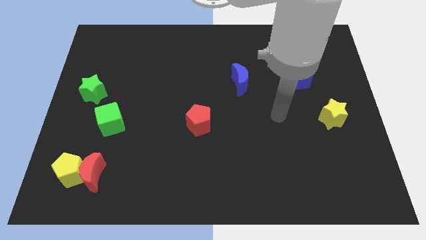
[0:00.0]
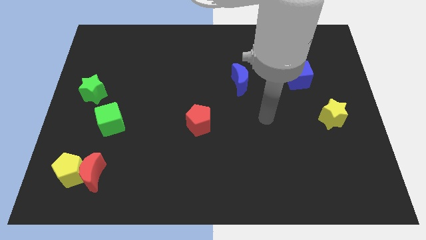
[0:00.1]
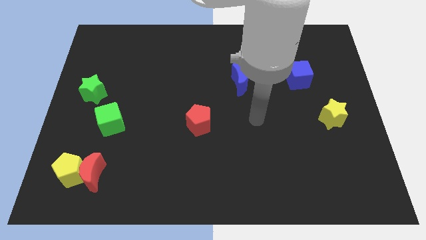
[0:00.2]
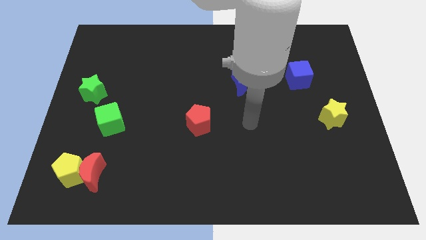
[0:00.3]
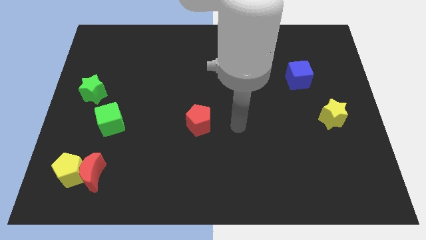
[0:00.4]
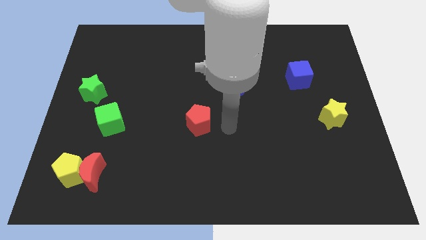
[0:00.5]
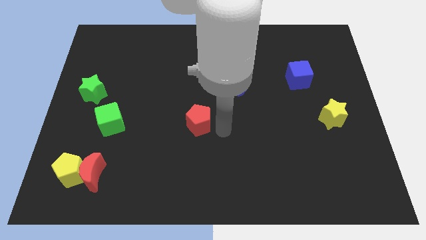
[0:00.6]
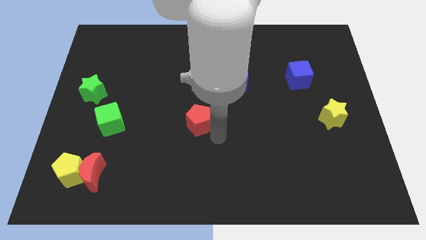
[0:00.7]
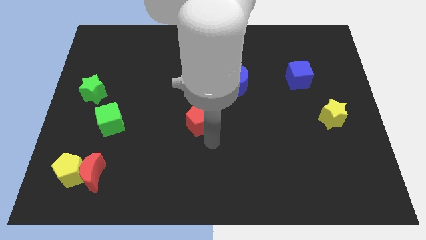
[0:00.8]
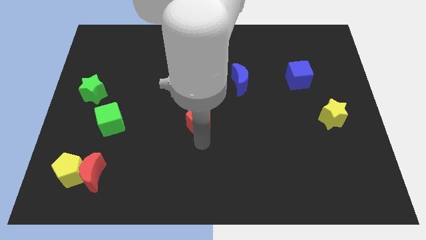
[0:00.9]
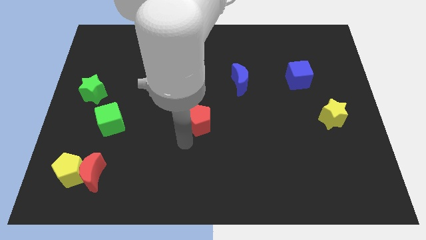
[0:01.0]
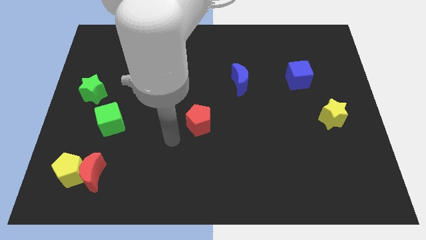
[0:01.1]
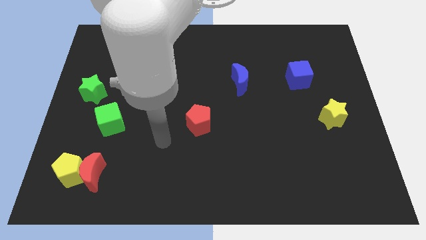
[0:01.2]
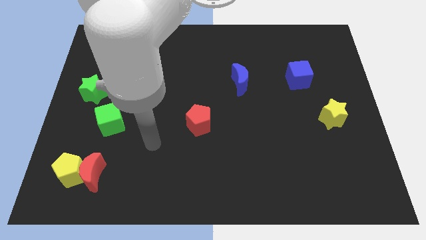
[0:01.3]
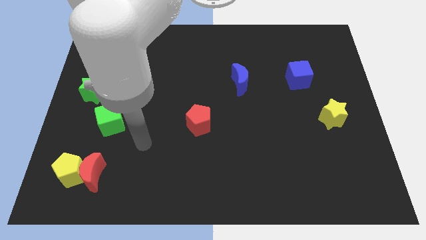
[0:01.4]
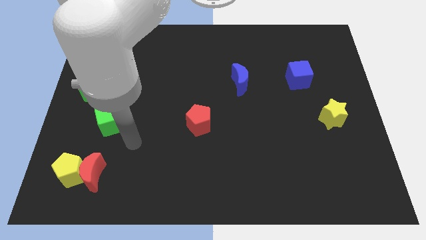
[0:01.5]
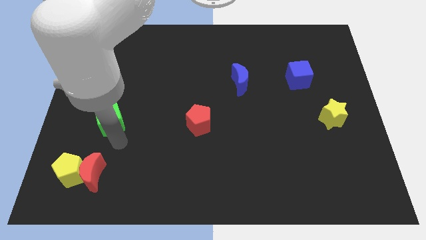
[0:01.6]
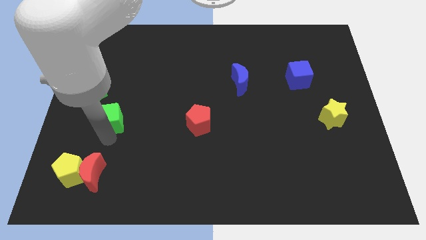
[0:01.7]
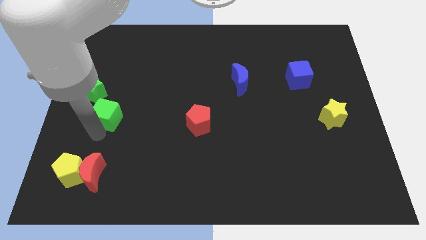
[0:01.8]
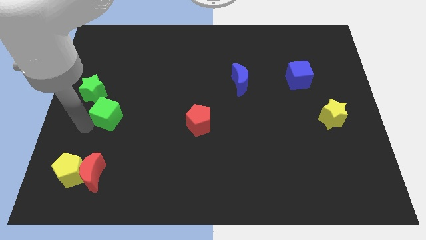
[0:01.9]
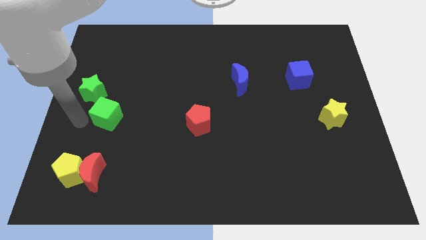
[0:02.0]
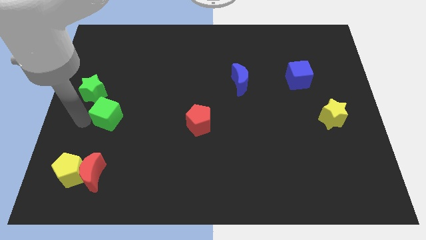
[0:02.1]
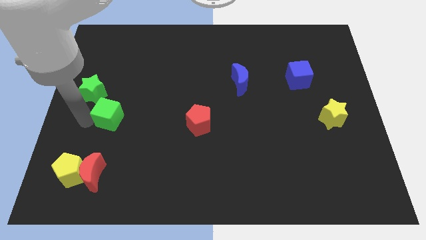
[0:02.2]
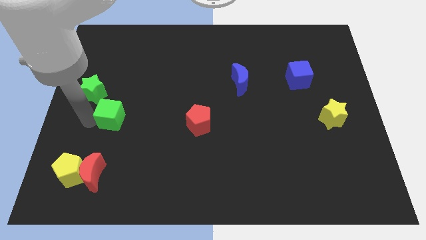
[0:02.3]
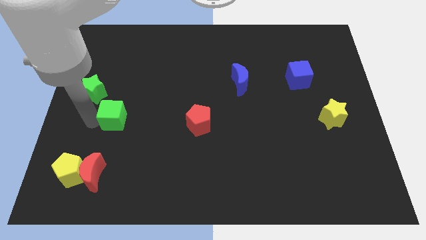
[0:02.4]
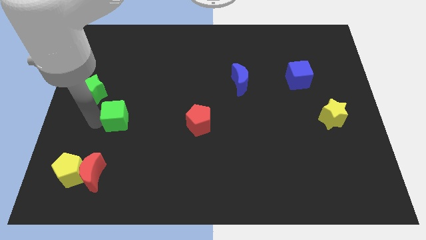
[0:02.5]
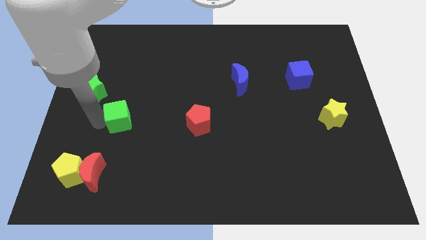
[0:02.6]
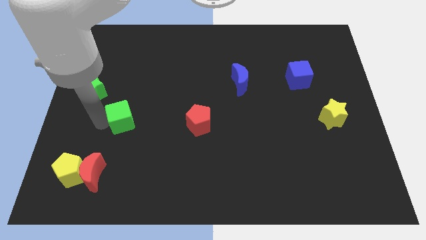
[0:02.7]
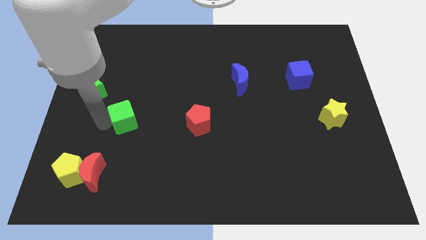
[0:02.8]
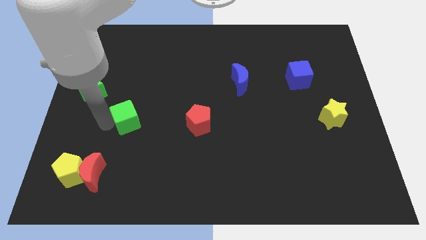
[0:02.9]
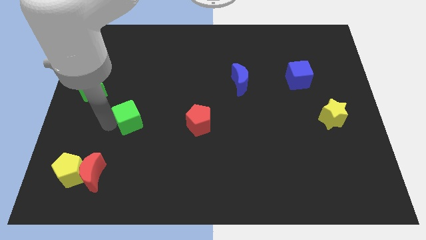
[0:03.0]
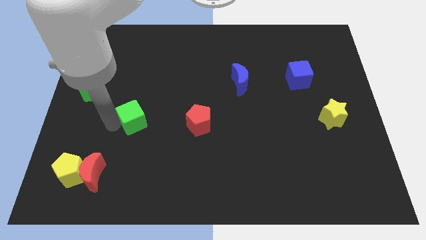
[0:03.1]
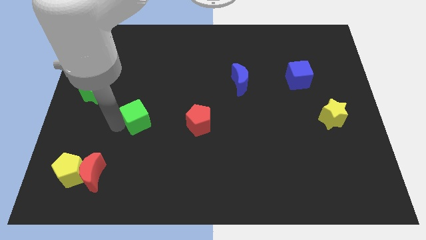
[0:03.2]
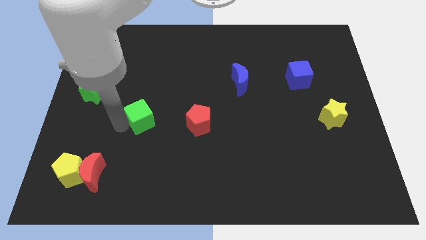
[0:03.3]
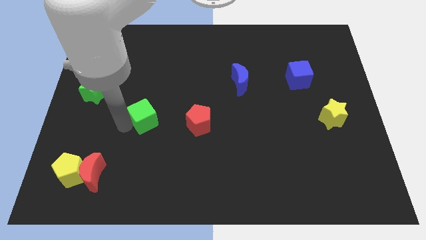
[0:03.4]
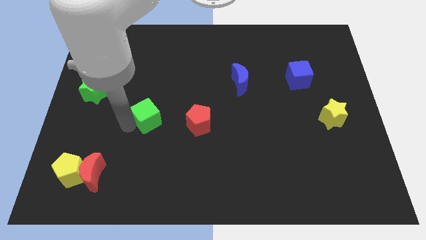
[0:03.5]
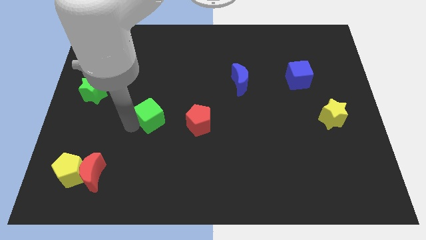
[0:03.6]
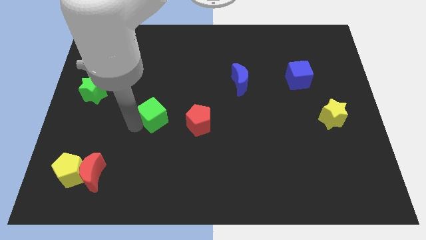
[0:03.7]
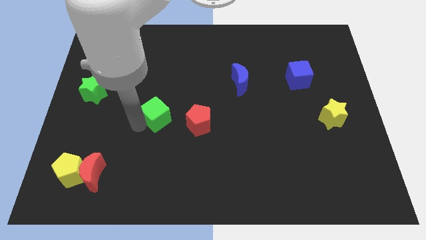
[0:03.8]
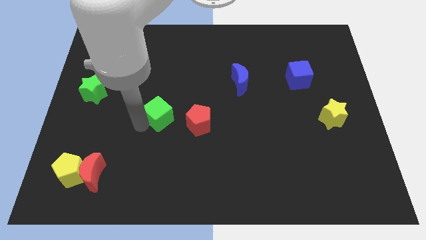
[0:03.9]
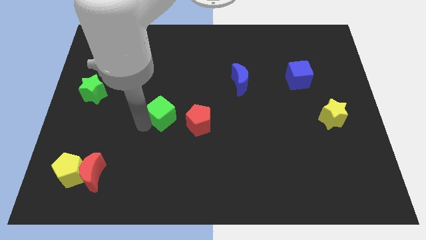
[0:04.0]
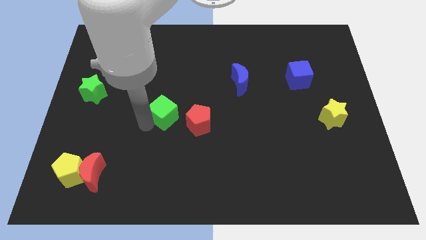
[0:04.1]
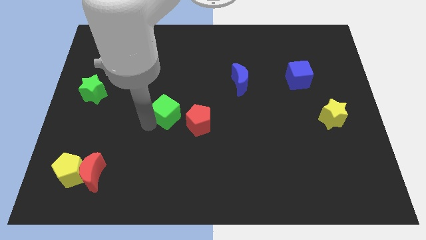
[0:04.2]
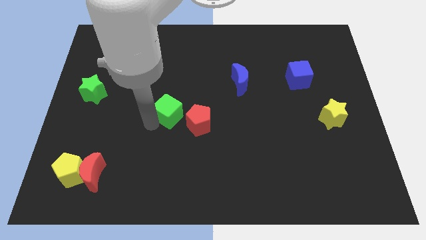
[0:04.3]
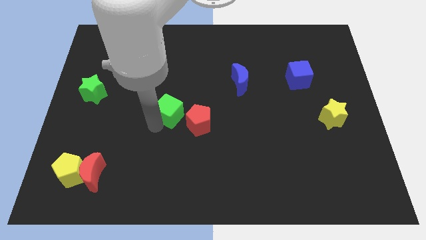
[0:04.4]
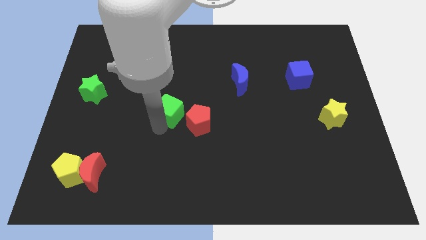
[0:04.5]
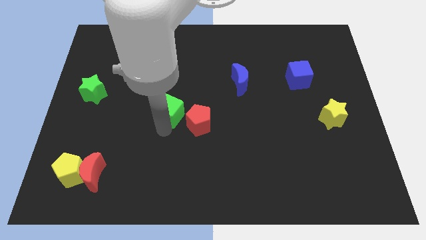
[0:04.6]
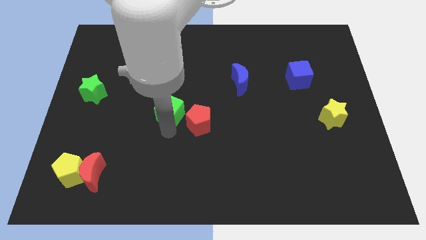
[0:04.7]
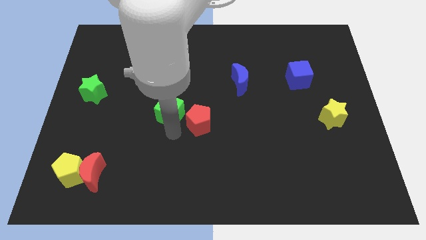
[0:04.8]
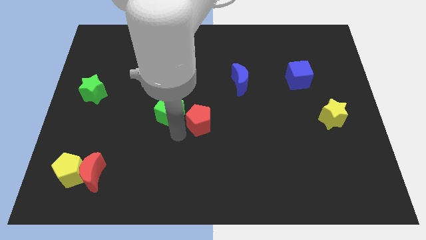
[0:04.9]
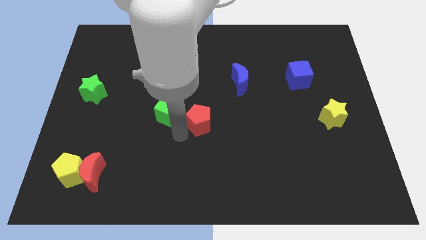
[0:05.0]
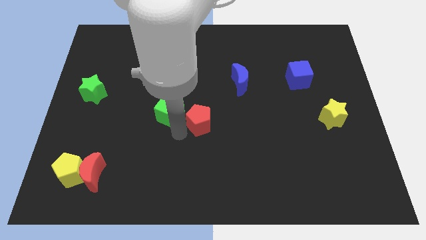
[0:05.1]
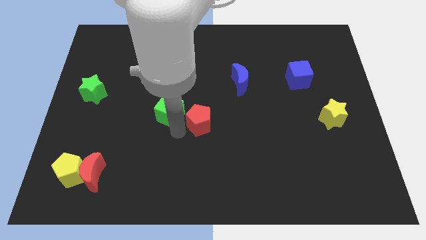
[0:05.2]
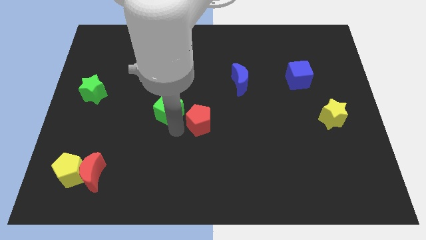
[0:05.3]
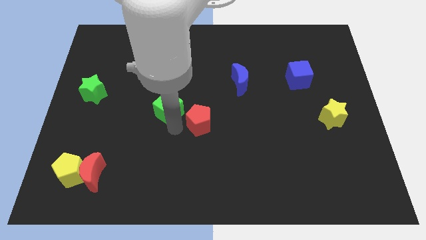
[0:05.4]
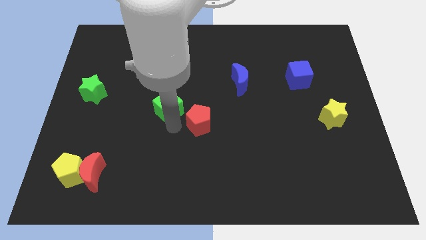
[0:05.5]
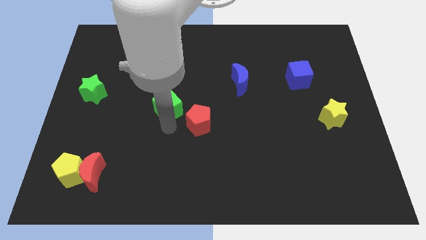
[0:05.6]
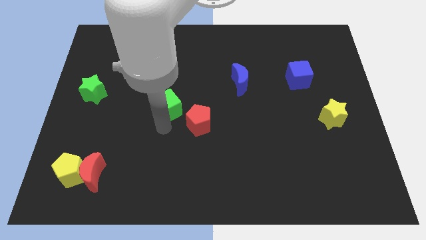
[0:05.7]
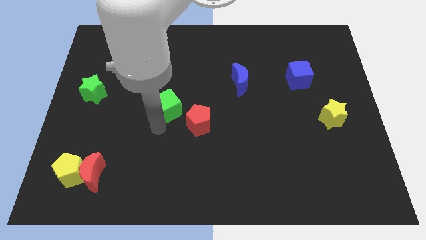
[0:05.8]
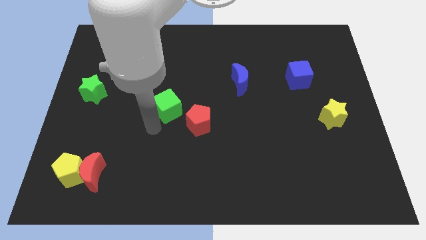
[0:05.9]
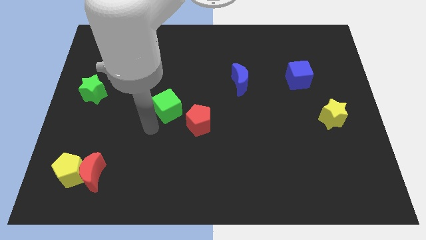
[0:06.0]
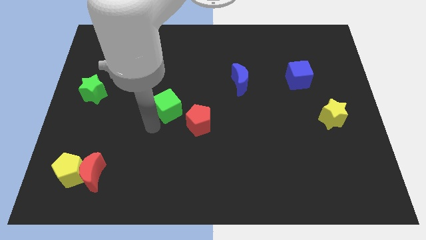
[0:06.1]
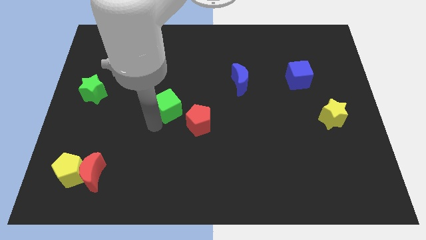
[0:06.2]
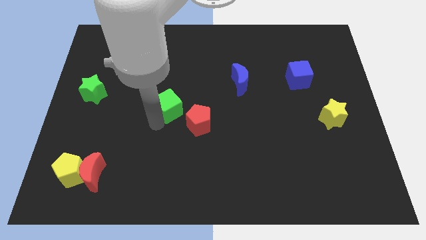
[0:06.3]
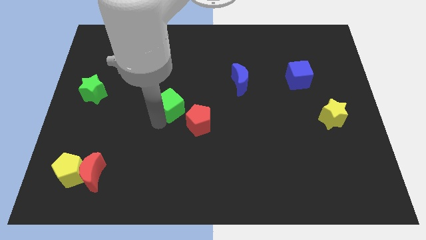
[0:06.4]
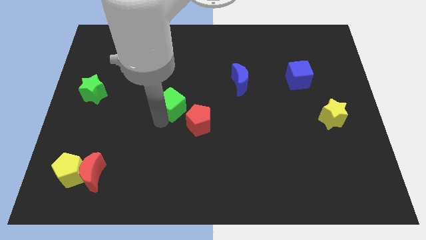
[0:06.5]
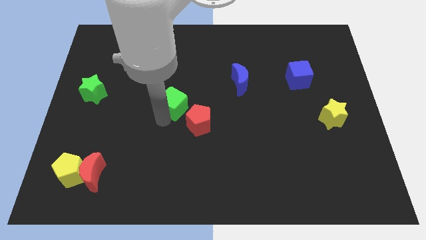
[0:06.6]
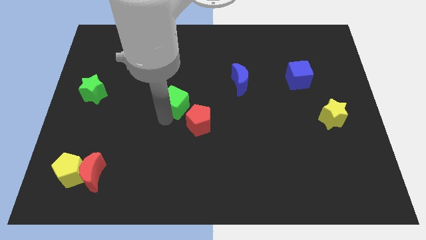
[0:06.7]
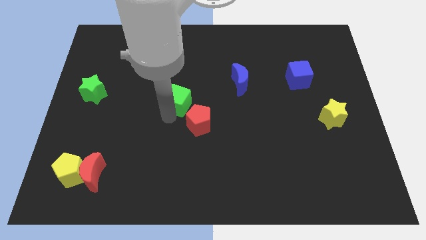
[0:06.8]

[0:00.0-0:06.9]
push the green cube above the red pentagon
